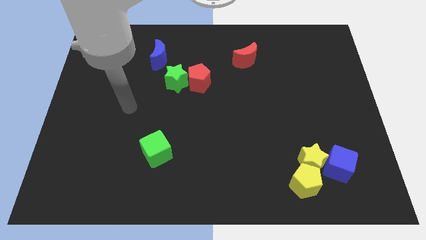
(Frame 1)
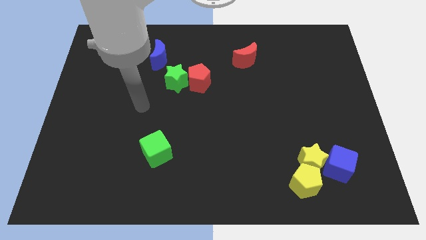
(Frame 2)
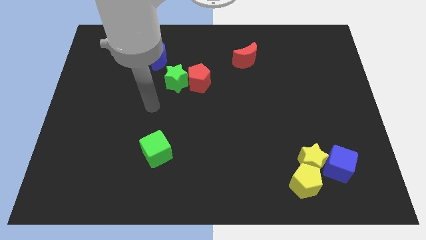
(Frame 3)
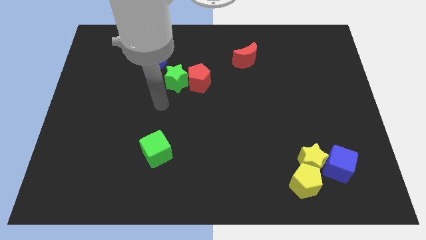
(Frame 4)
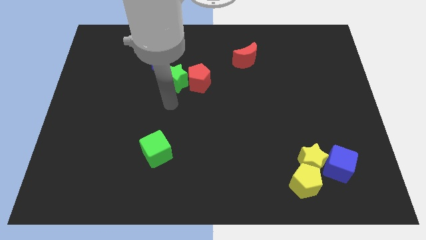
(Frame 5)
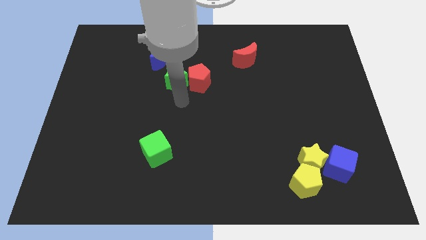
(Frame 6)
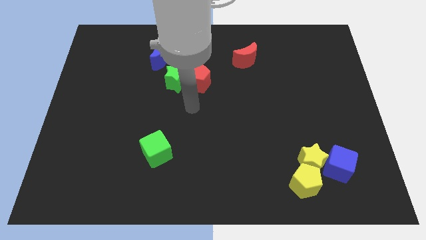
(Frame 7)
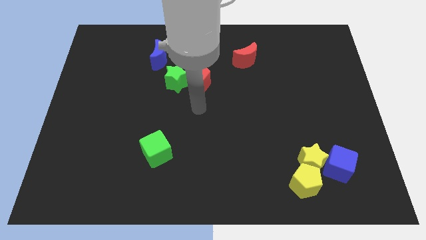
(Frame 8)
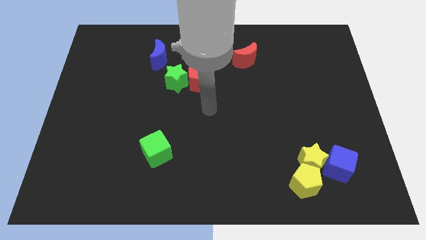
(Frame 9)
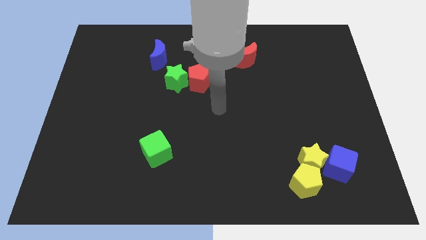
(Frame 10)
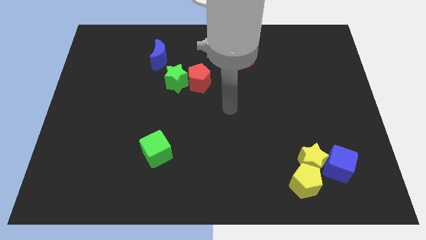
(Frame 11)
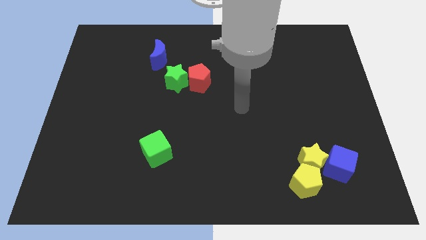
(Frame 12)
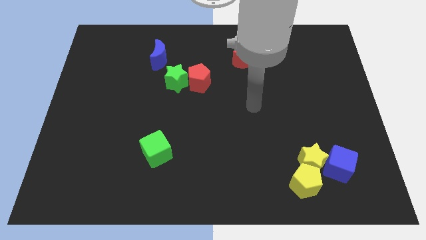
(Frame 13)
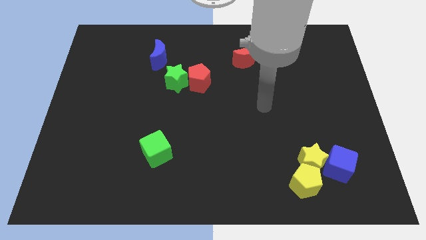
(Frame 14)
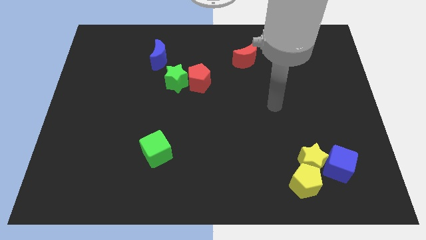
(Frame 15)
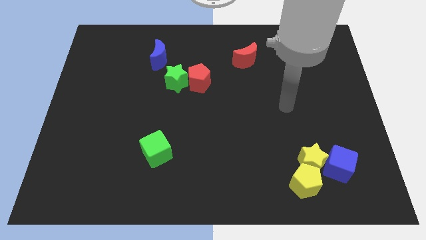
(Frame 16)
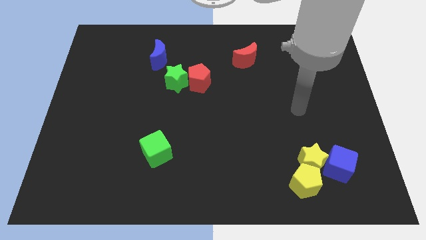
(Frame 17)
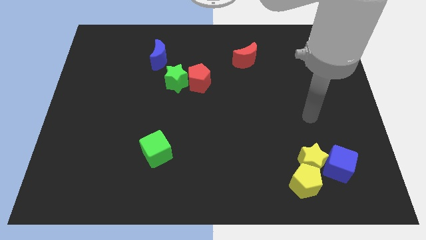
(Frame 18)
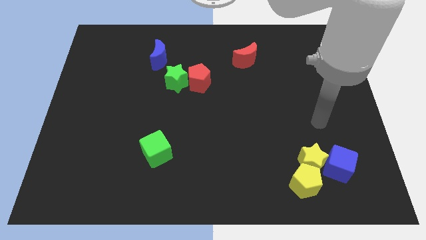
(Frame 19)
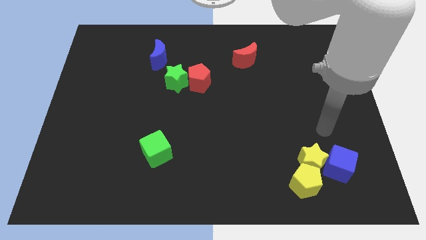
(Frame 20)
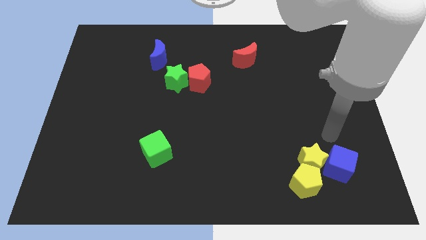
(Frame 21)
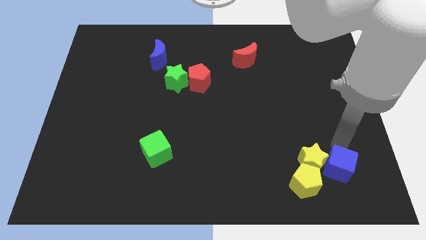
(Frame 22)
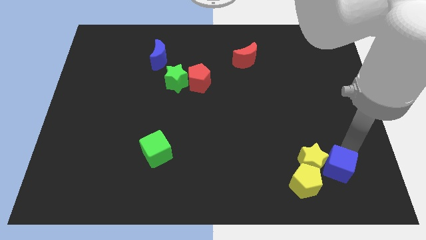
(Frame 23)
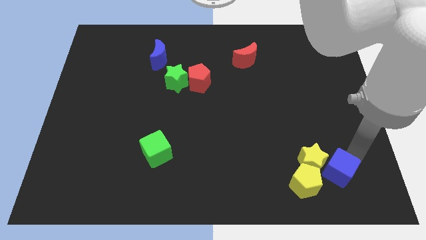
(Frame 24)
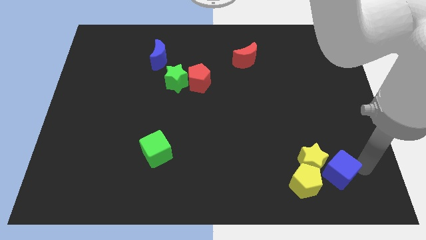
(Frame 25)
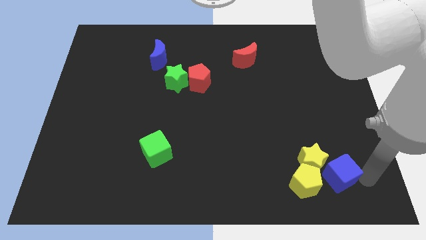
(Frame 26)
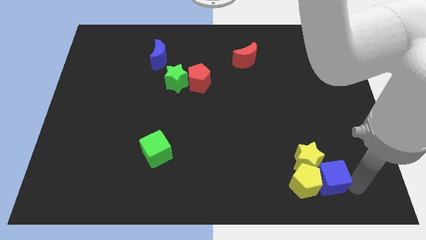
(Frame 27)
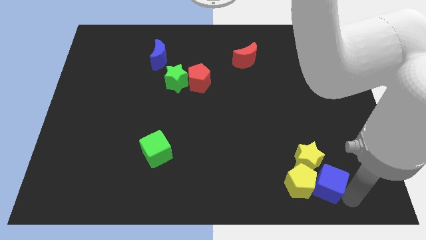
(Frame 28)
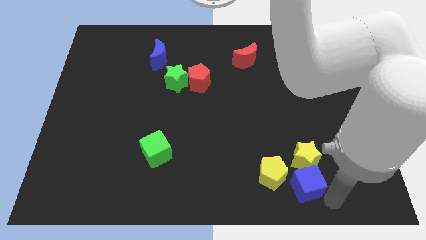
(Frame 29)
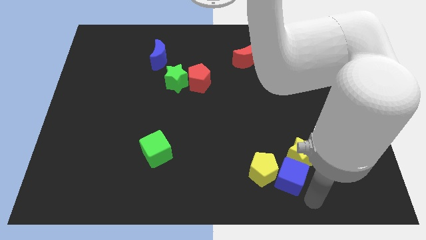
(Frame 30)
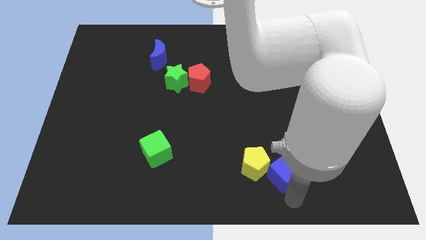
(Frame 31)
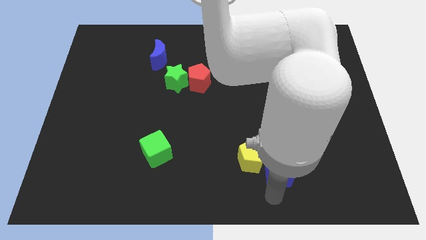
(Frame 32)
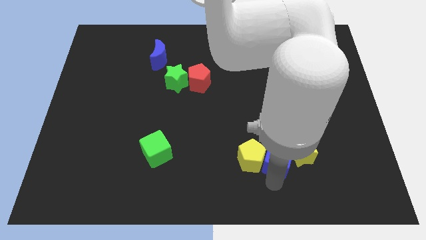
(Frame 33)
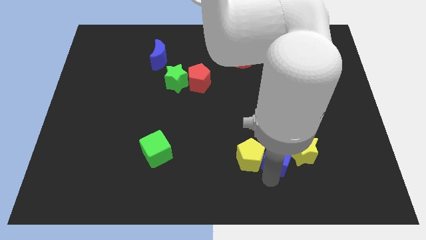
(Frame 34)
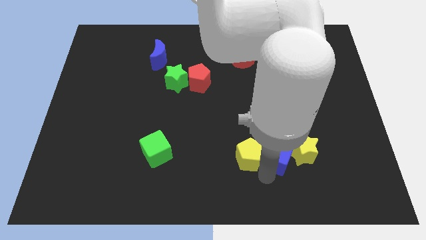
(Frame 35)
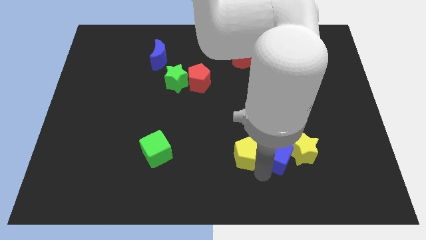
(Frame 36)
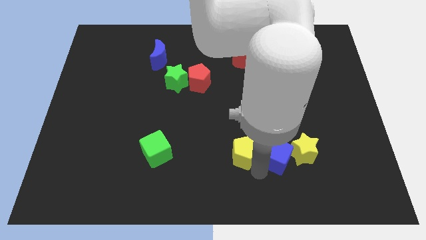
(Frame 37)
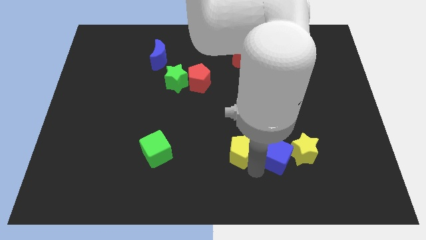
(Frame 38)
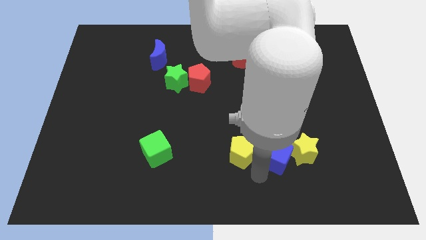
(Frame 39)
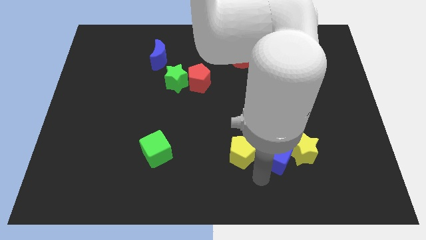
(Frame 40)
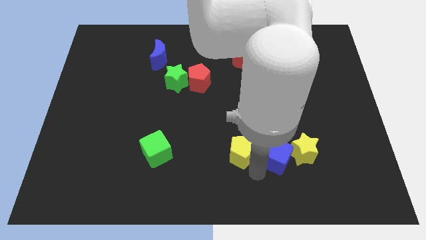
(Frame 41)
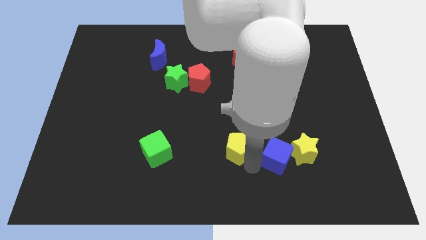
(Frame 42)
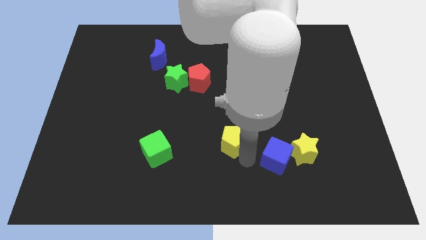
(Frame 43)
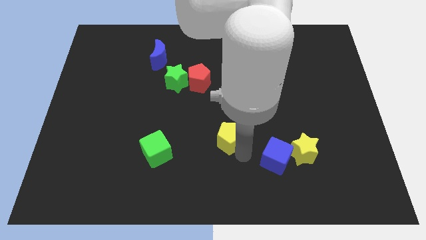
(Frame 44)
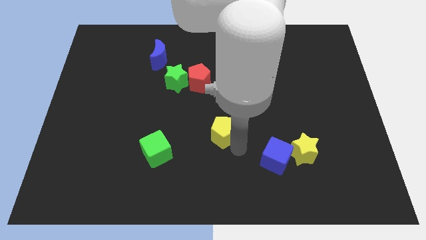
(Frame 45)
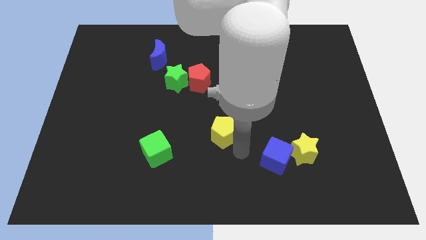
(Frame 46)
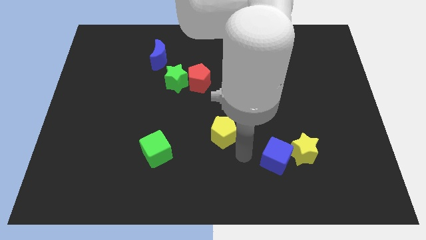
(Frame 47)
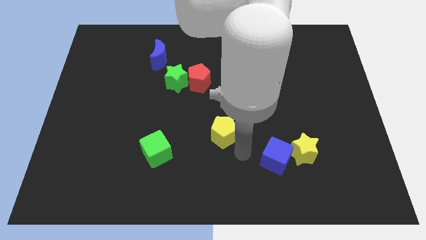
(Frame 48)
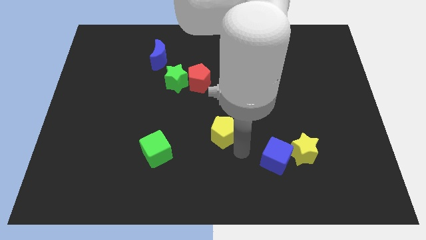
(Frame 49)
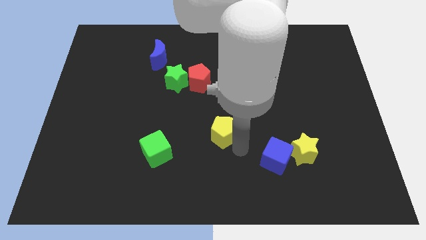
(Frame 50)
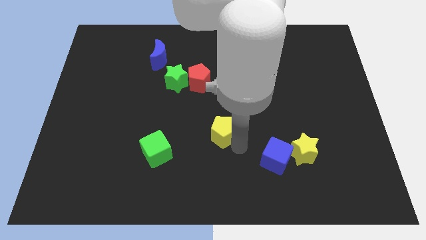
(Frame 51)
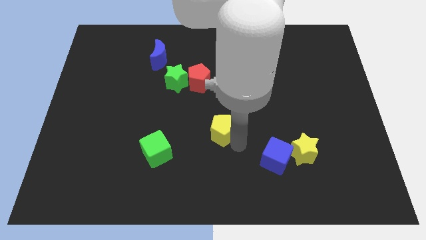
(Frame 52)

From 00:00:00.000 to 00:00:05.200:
slide the yellow pentagon upwards and to the left

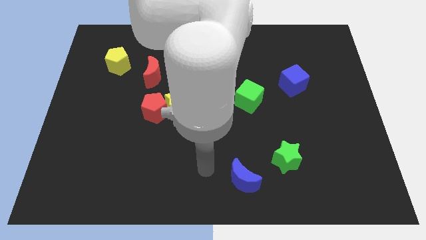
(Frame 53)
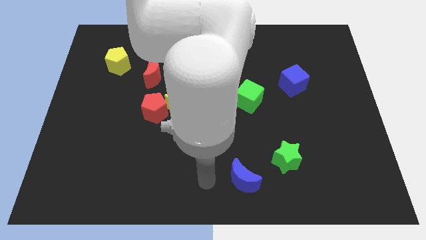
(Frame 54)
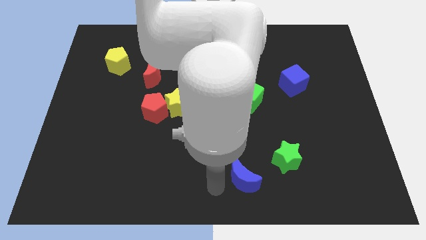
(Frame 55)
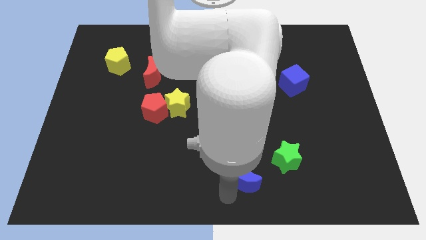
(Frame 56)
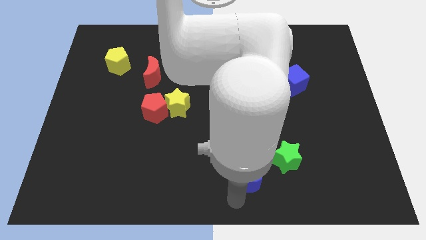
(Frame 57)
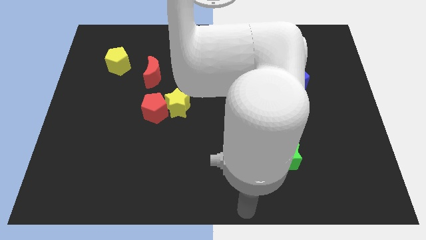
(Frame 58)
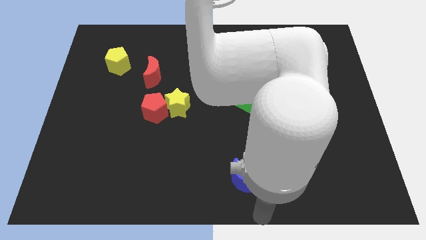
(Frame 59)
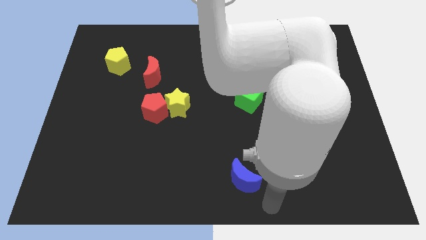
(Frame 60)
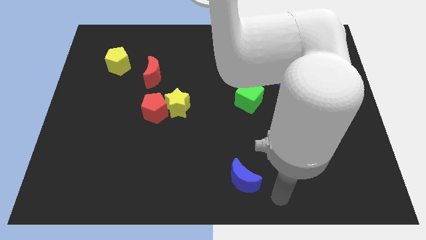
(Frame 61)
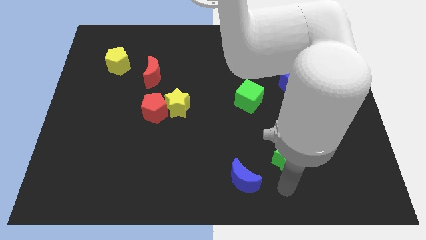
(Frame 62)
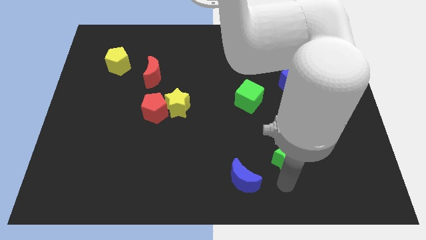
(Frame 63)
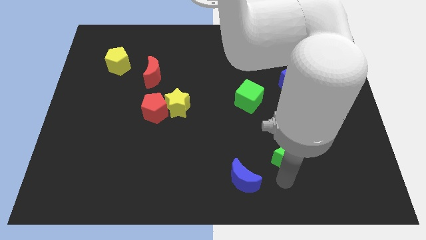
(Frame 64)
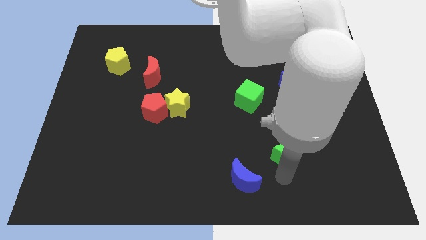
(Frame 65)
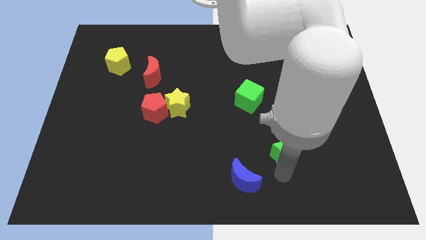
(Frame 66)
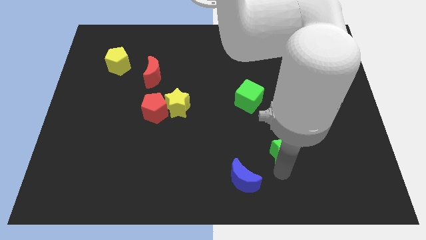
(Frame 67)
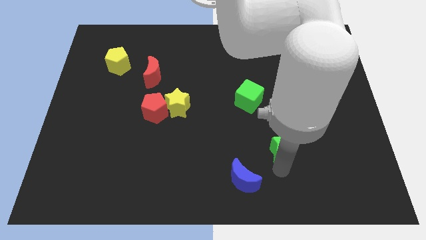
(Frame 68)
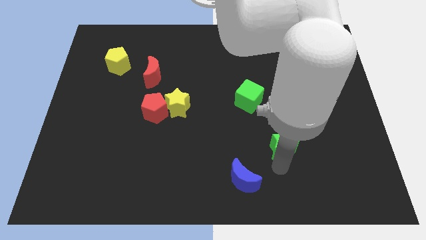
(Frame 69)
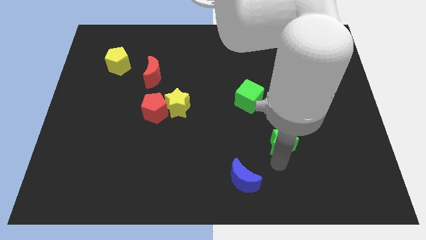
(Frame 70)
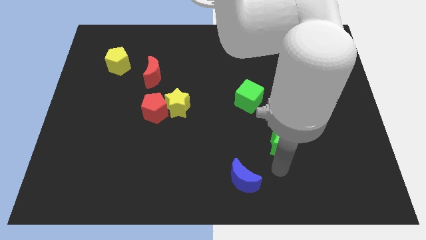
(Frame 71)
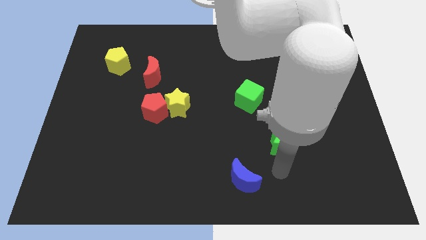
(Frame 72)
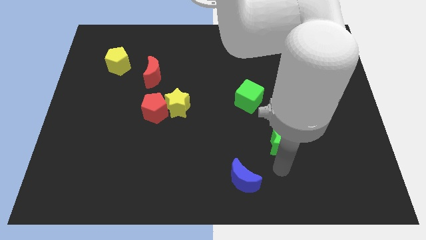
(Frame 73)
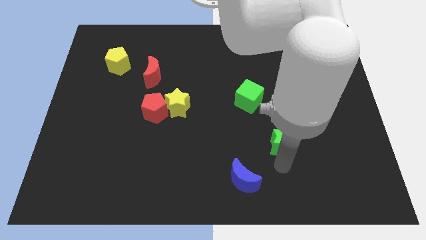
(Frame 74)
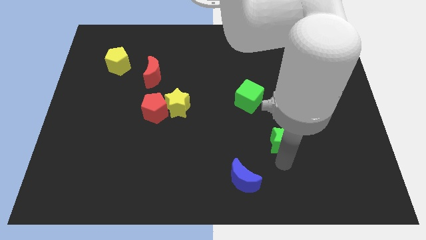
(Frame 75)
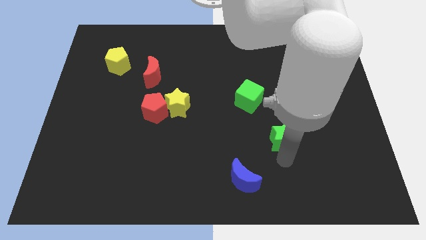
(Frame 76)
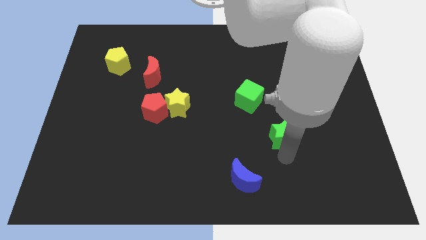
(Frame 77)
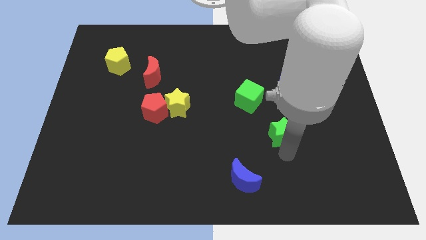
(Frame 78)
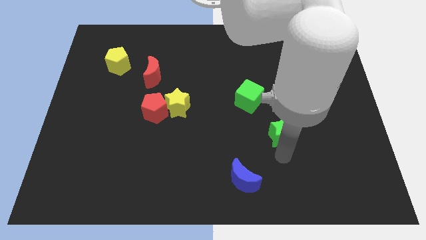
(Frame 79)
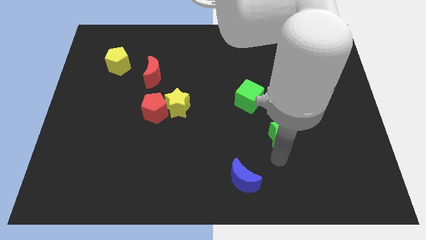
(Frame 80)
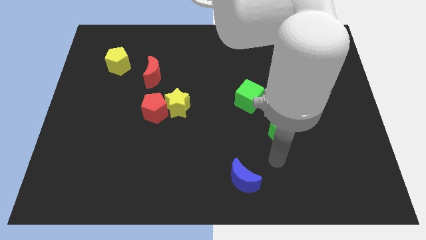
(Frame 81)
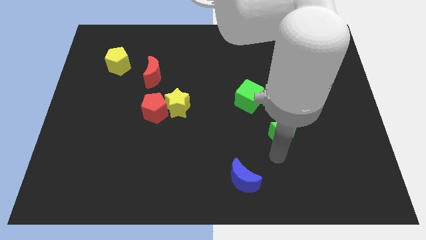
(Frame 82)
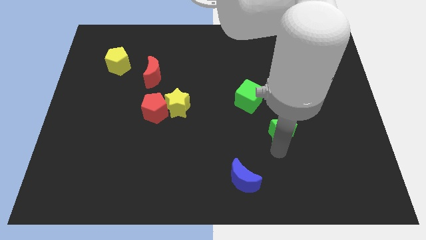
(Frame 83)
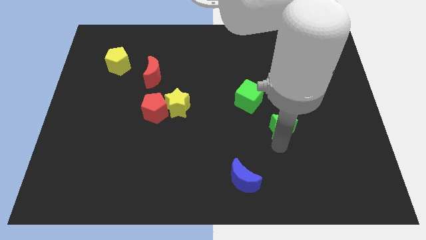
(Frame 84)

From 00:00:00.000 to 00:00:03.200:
push the green star upwards a bit
